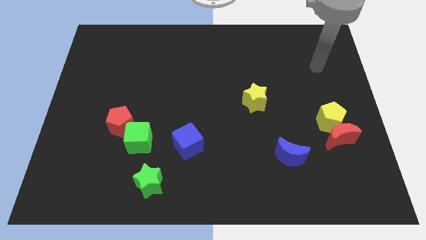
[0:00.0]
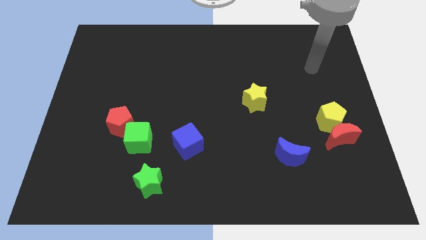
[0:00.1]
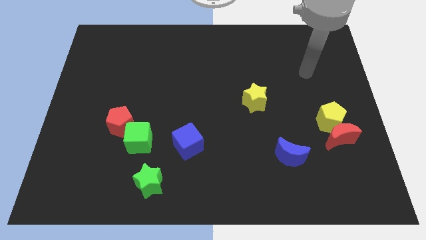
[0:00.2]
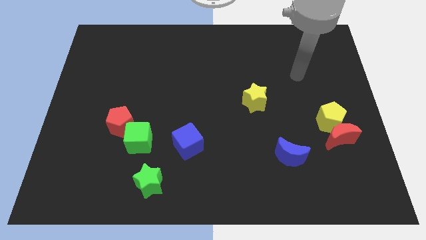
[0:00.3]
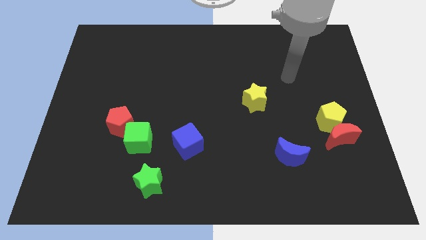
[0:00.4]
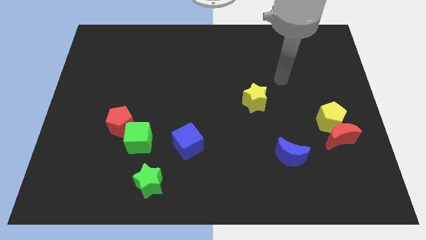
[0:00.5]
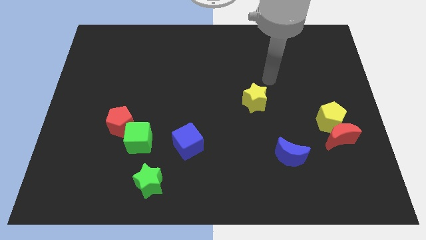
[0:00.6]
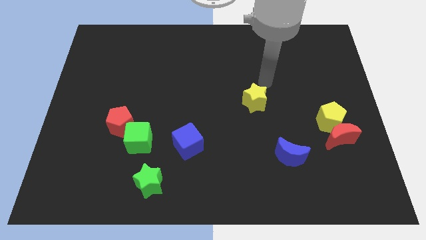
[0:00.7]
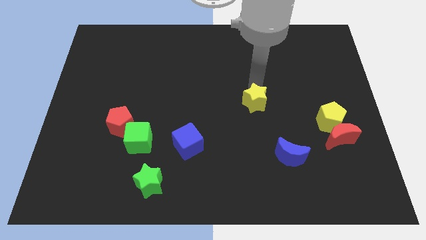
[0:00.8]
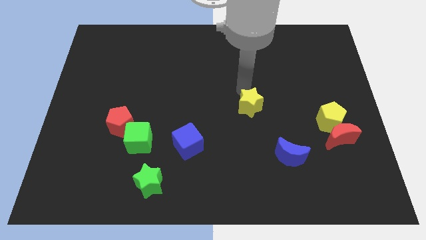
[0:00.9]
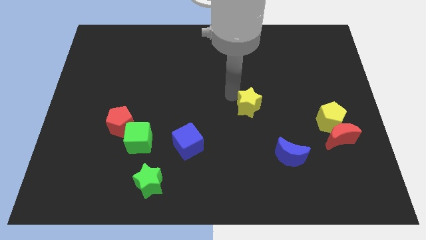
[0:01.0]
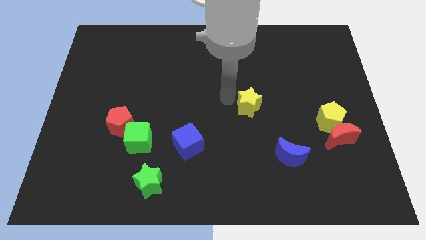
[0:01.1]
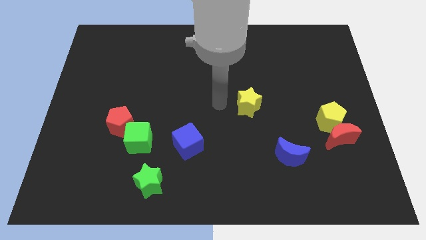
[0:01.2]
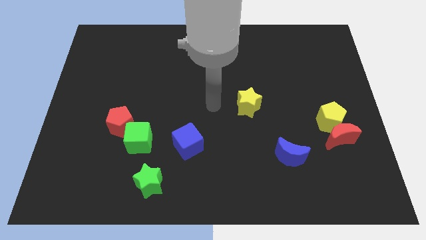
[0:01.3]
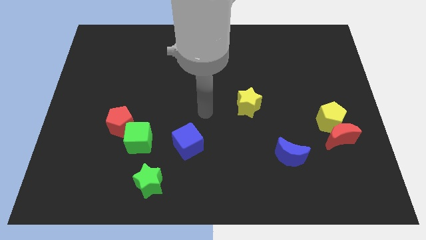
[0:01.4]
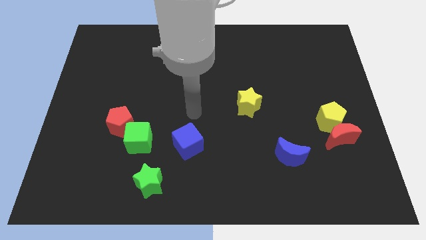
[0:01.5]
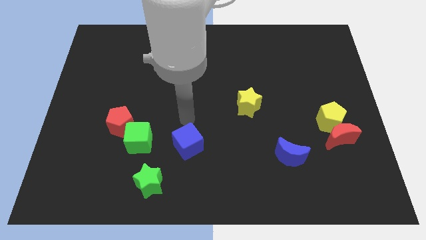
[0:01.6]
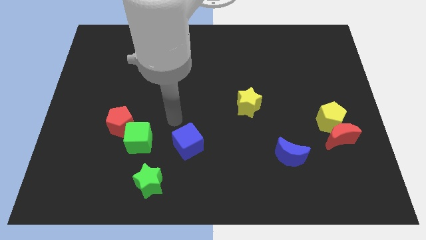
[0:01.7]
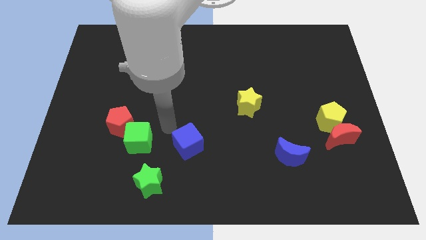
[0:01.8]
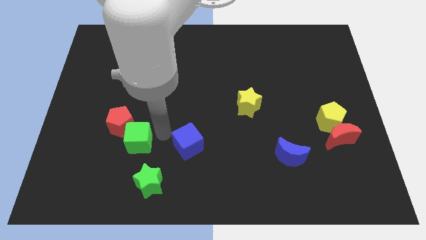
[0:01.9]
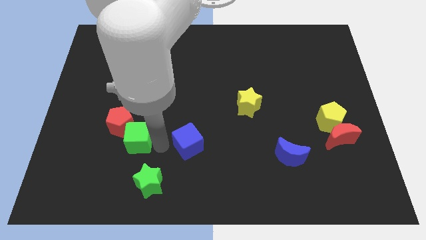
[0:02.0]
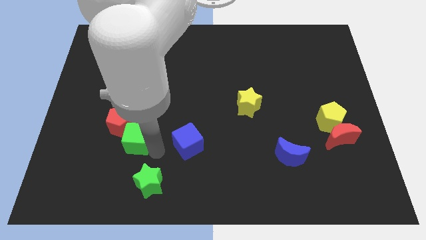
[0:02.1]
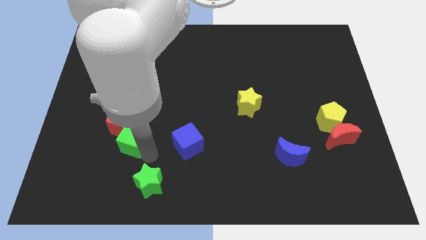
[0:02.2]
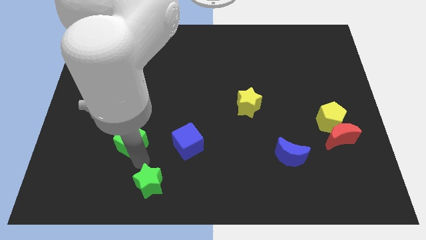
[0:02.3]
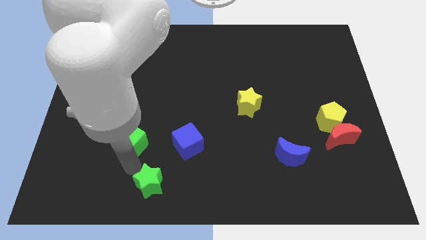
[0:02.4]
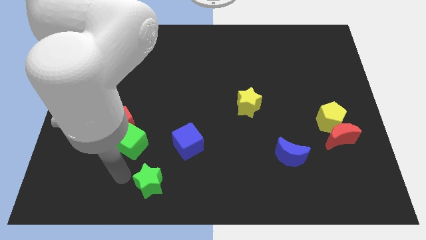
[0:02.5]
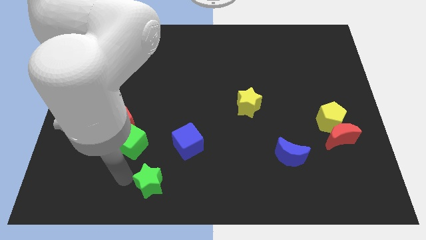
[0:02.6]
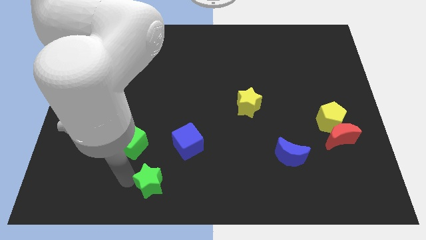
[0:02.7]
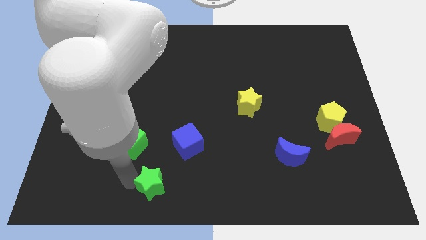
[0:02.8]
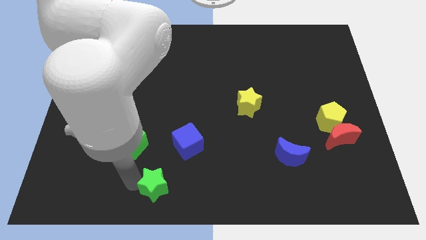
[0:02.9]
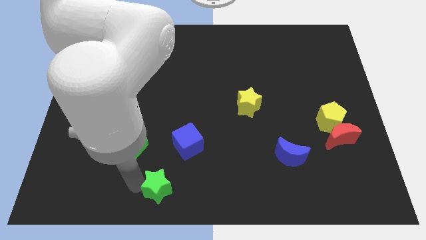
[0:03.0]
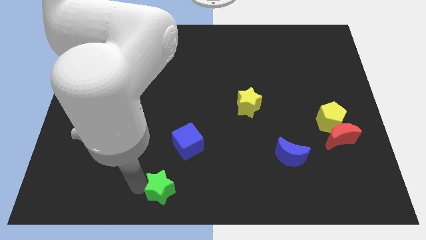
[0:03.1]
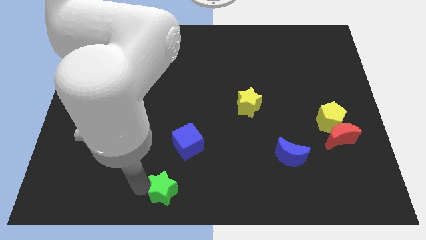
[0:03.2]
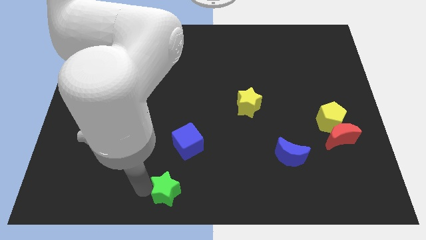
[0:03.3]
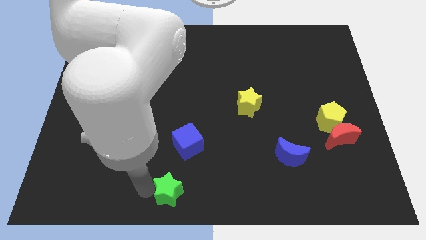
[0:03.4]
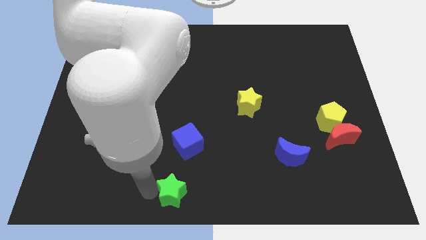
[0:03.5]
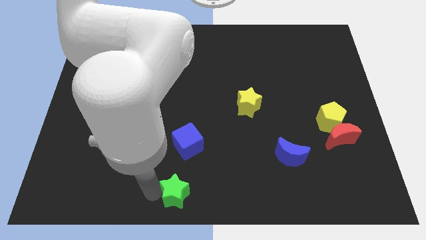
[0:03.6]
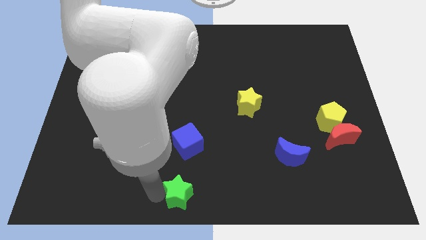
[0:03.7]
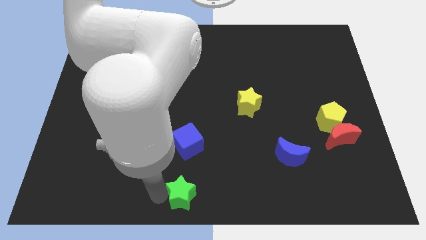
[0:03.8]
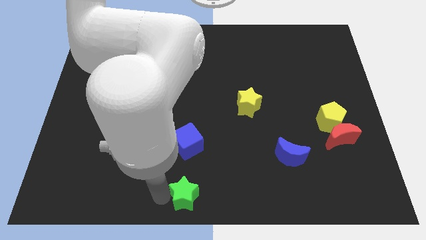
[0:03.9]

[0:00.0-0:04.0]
move the green star a bit right

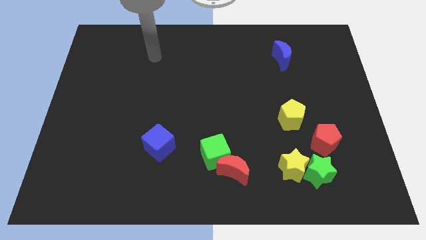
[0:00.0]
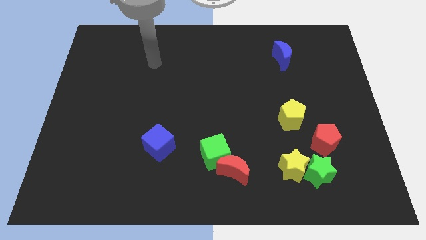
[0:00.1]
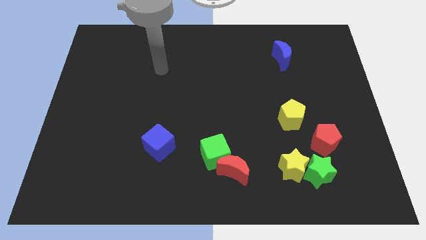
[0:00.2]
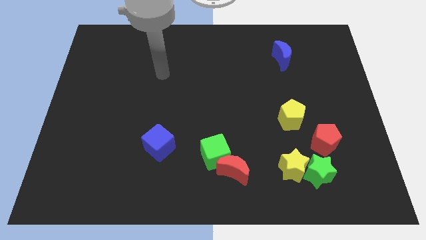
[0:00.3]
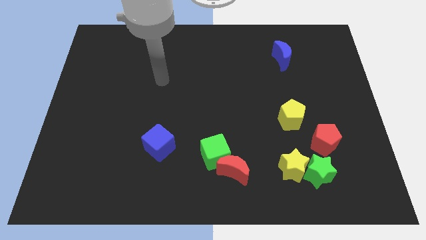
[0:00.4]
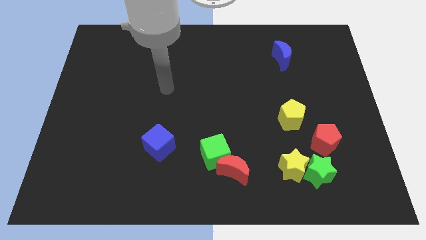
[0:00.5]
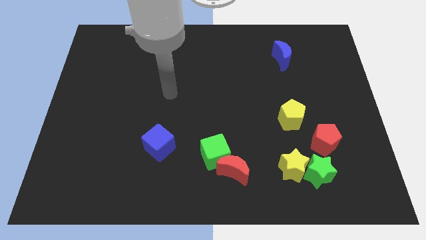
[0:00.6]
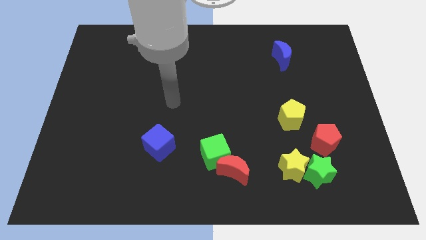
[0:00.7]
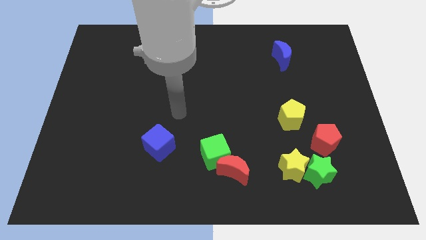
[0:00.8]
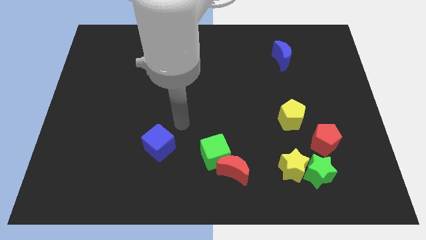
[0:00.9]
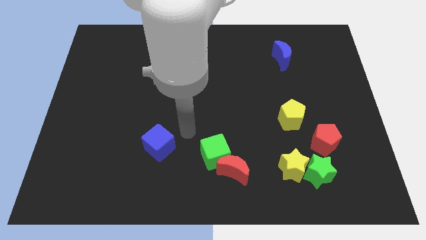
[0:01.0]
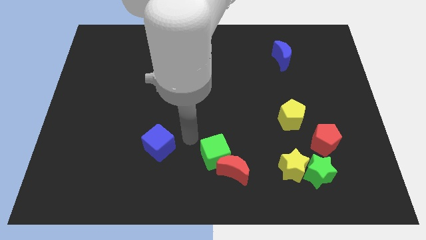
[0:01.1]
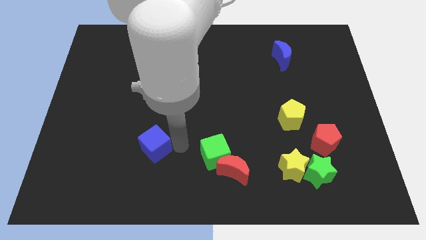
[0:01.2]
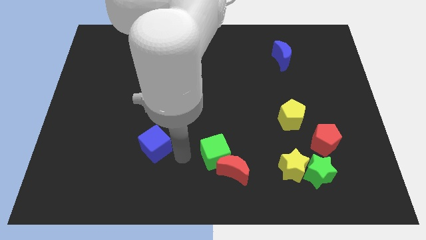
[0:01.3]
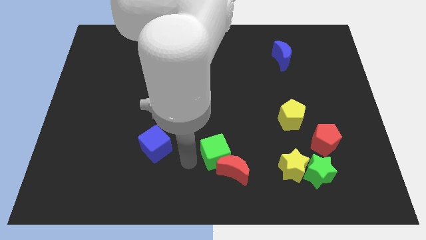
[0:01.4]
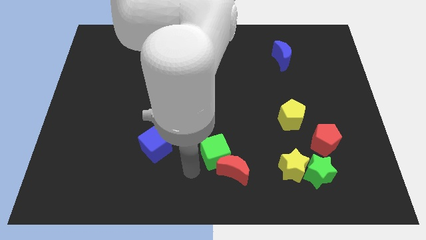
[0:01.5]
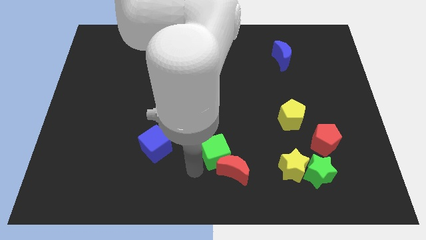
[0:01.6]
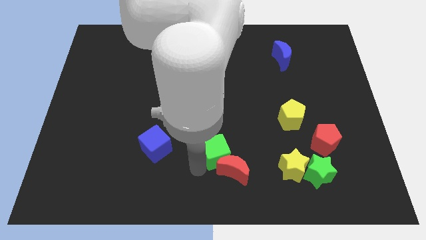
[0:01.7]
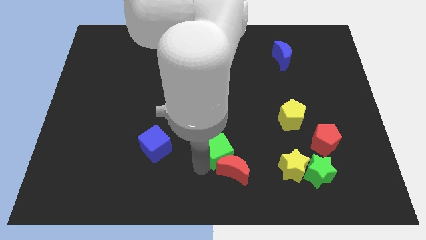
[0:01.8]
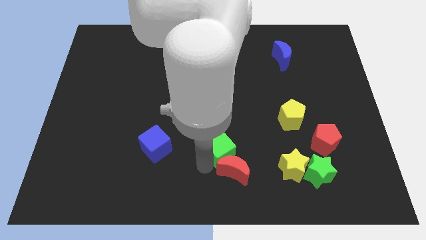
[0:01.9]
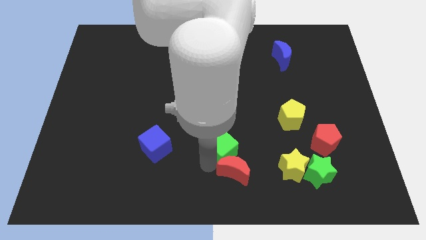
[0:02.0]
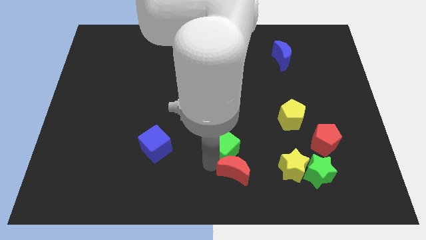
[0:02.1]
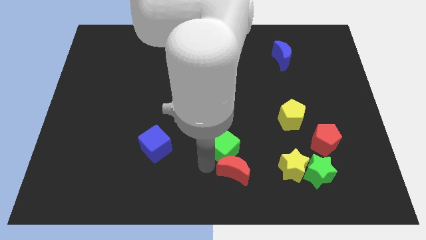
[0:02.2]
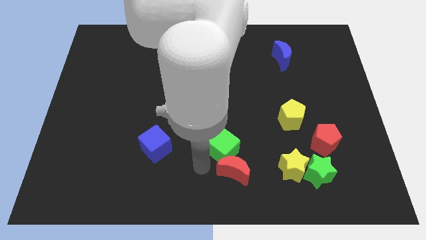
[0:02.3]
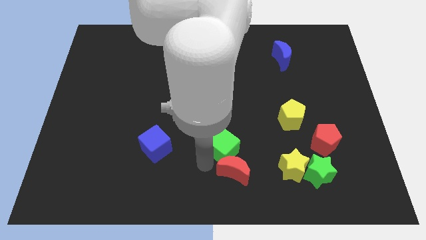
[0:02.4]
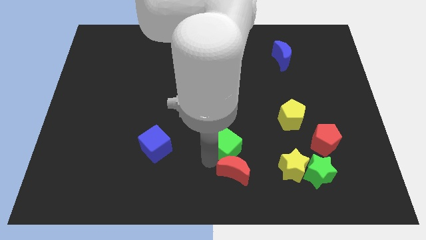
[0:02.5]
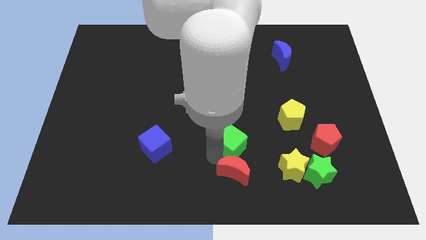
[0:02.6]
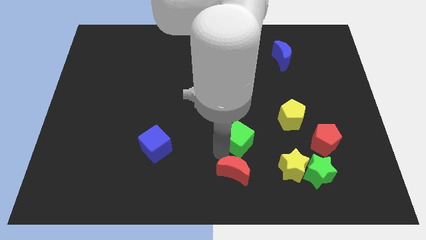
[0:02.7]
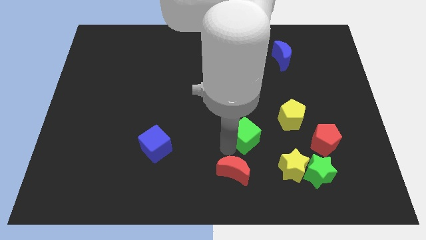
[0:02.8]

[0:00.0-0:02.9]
push the green cube a bit upwards and to the right

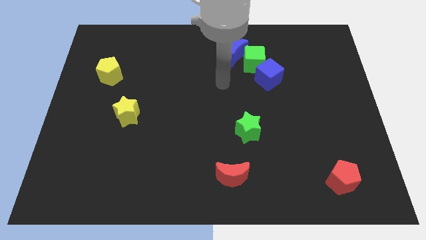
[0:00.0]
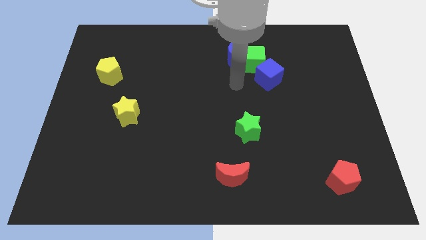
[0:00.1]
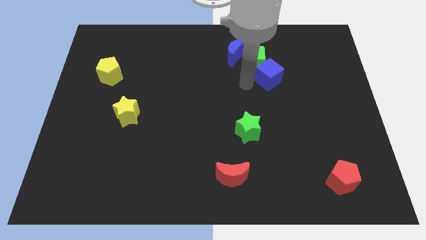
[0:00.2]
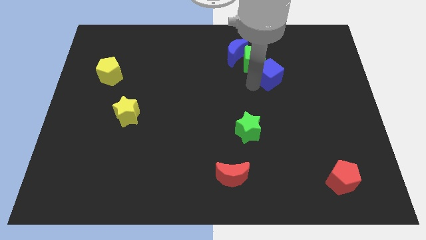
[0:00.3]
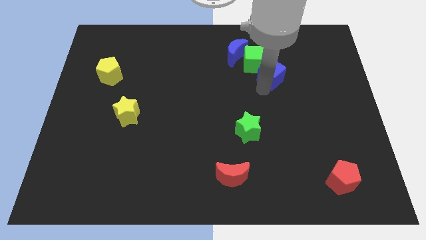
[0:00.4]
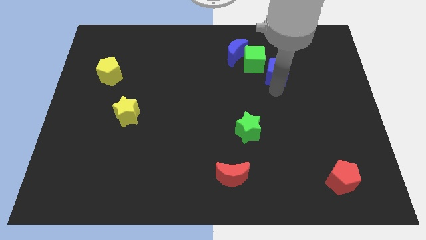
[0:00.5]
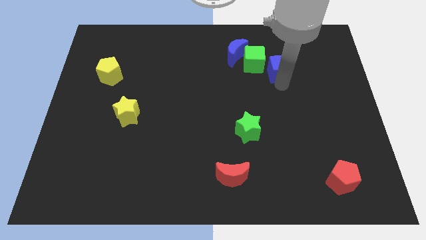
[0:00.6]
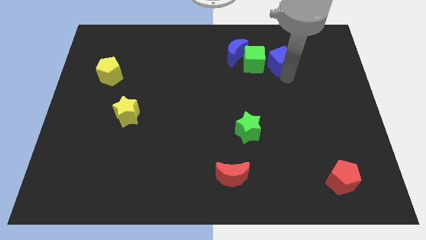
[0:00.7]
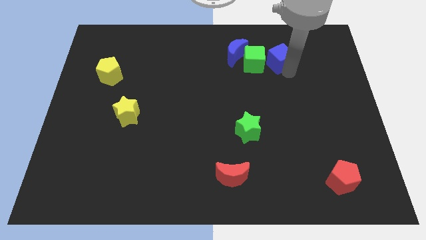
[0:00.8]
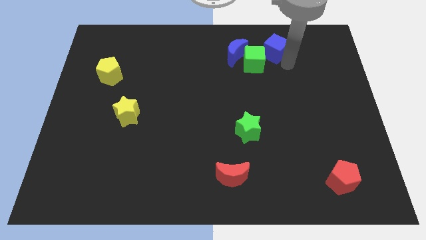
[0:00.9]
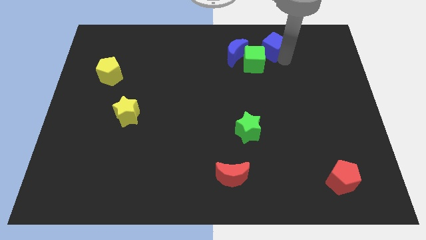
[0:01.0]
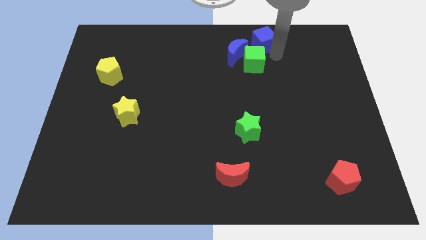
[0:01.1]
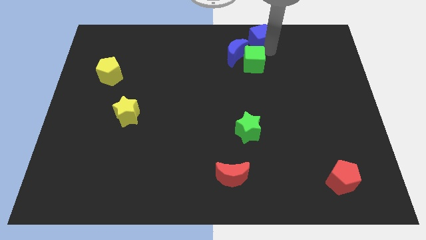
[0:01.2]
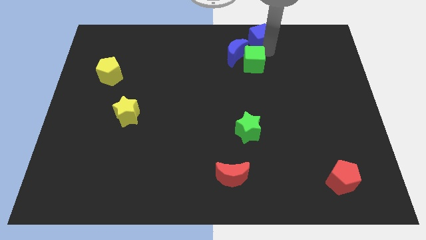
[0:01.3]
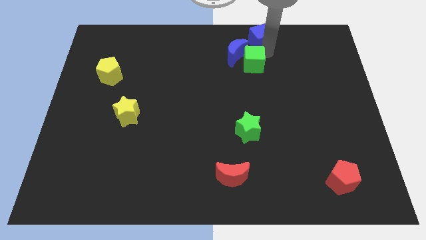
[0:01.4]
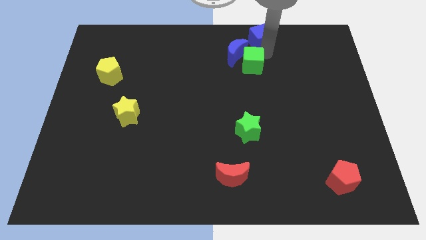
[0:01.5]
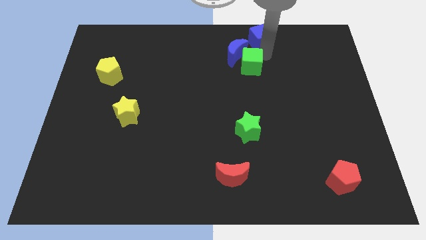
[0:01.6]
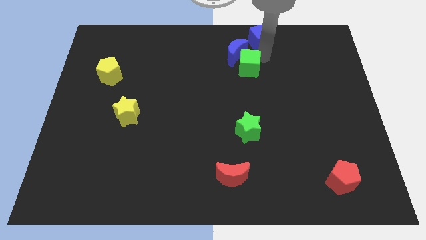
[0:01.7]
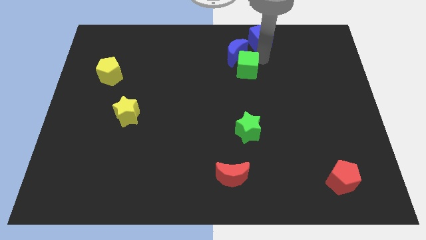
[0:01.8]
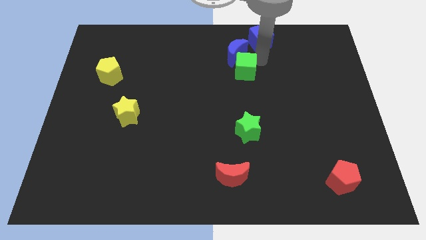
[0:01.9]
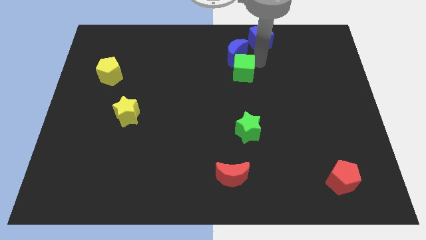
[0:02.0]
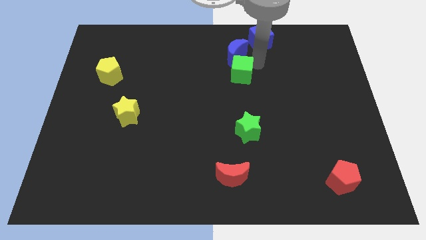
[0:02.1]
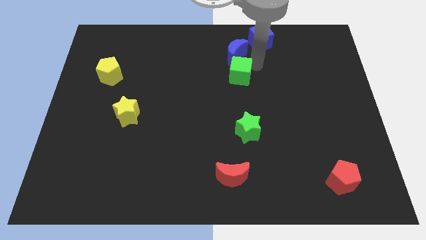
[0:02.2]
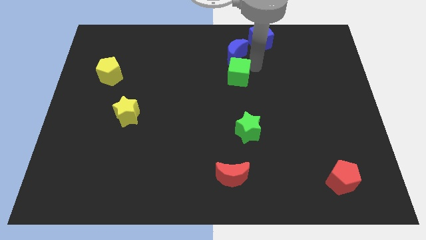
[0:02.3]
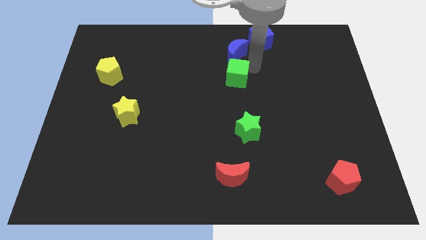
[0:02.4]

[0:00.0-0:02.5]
slightly move the green cube diagonally down and left
